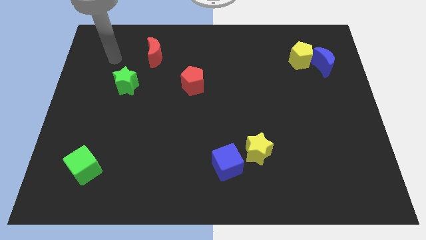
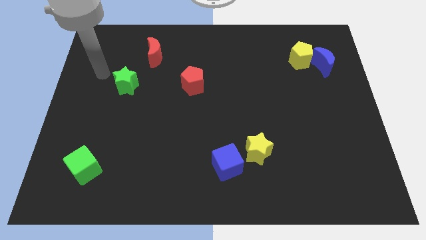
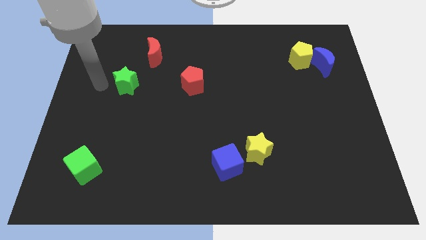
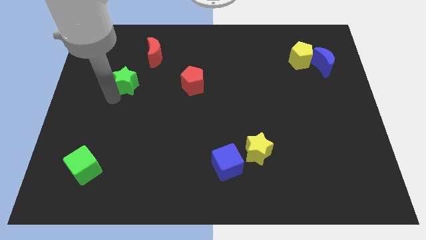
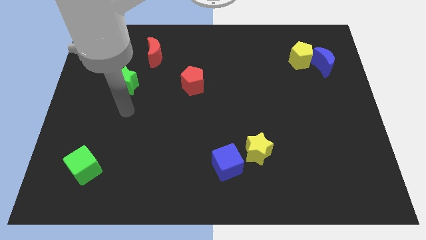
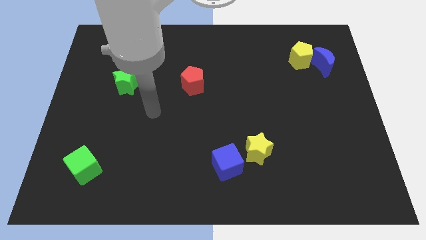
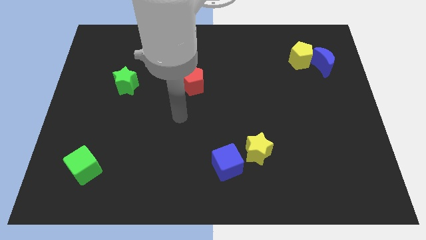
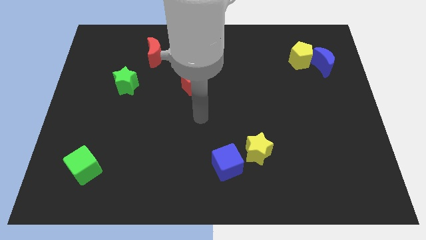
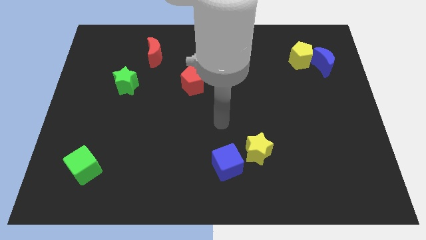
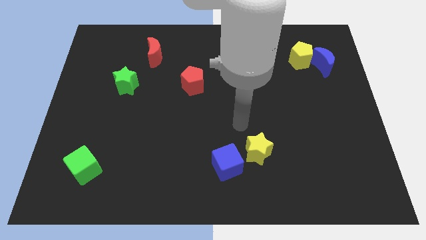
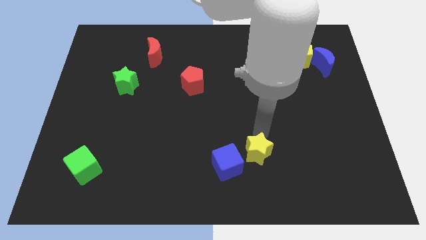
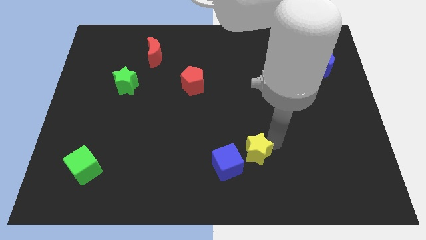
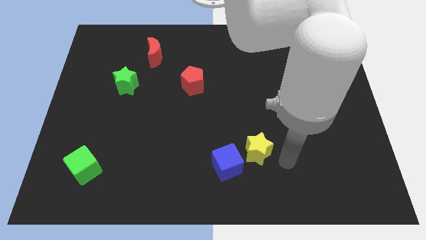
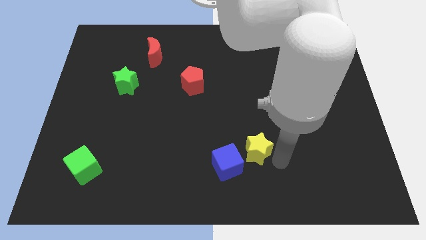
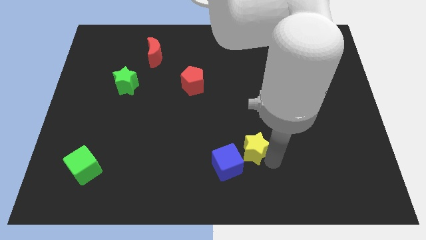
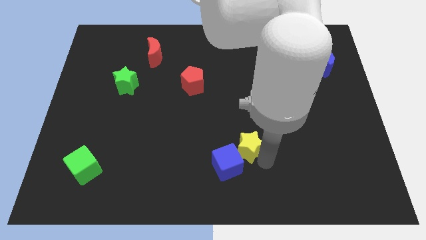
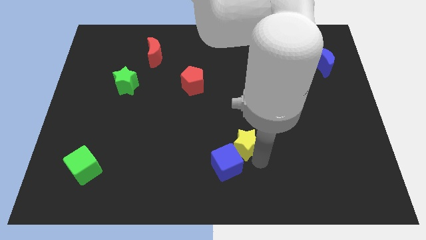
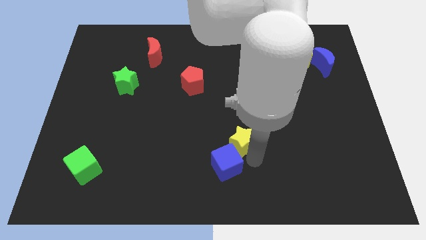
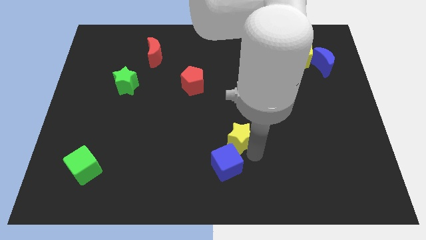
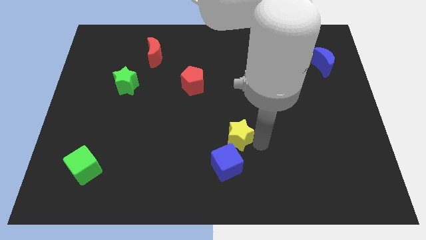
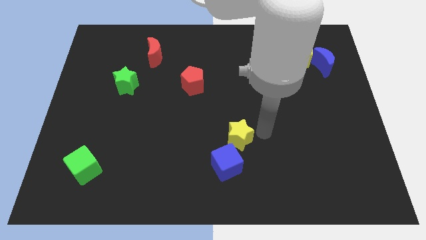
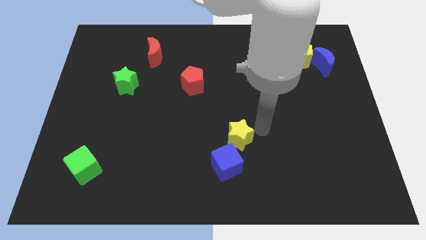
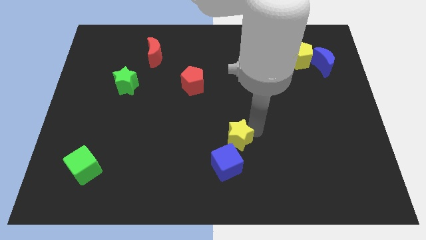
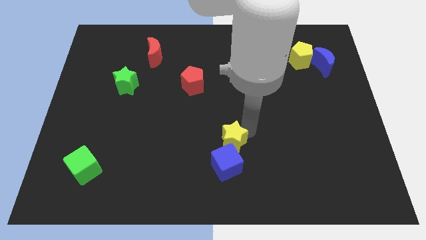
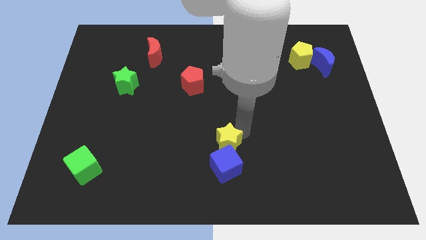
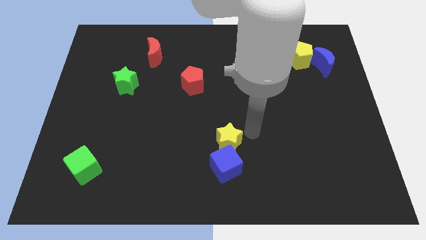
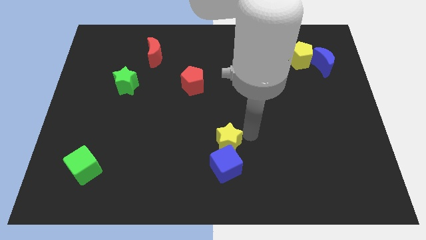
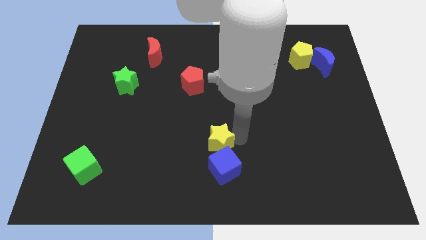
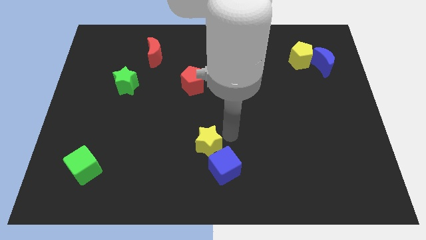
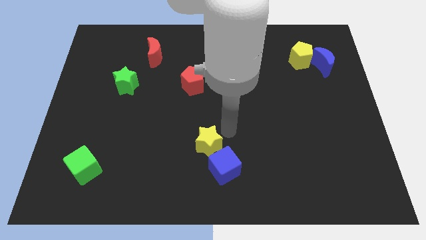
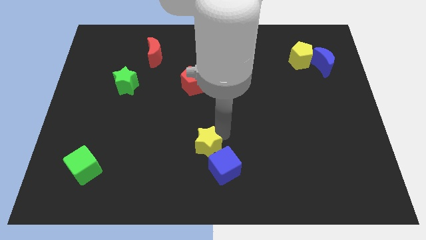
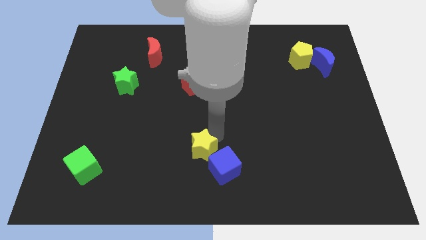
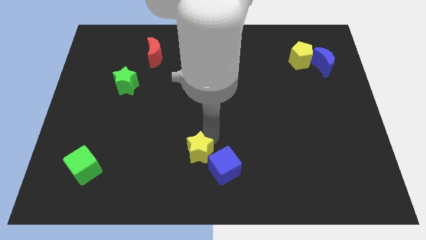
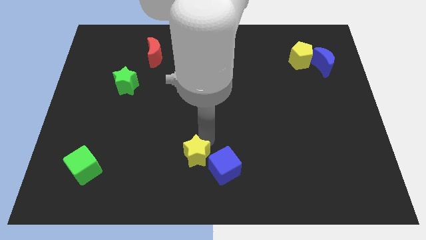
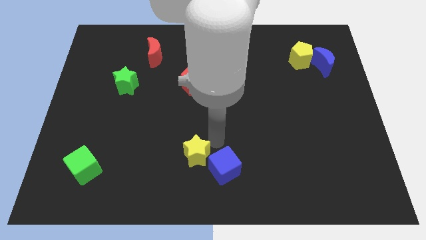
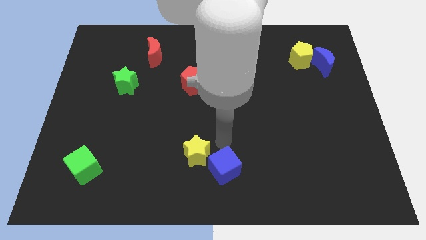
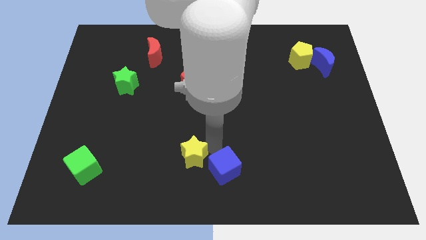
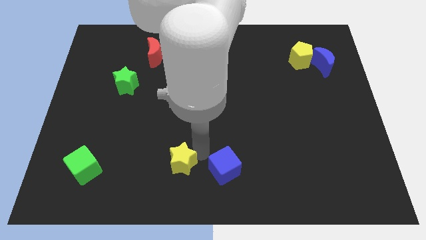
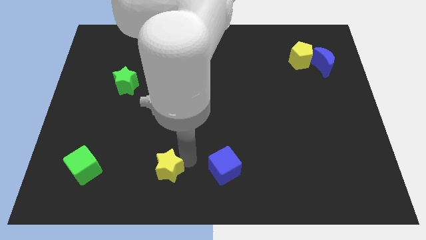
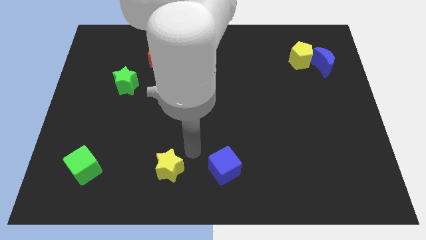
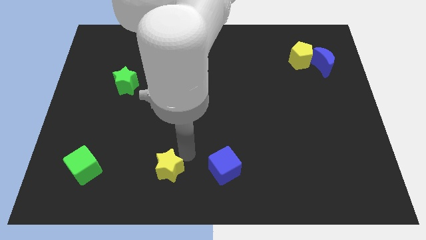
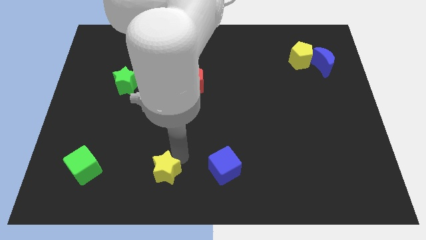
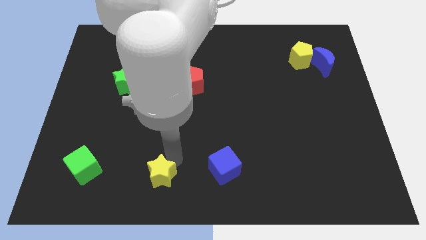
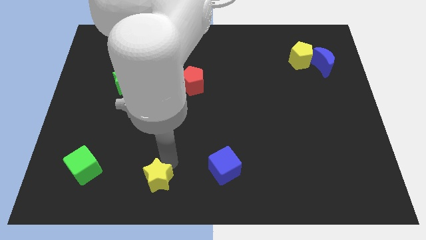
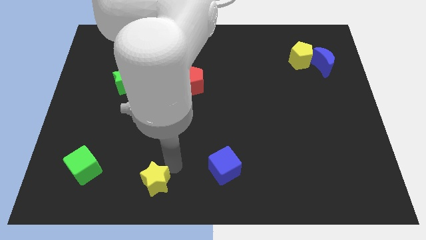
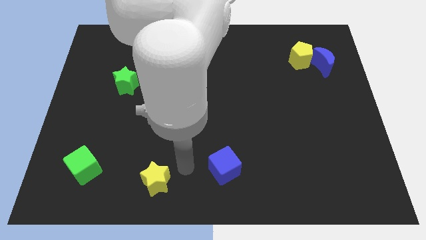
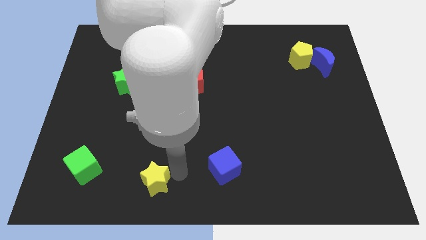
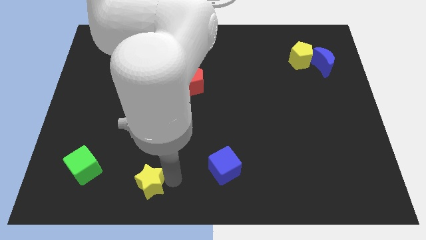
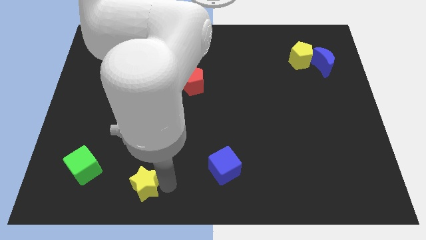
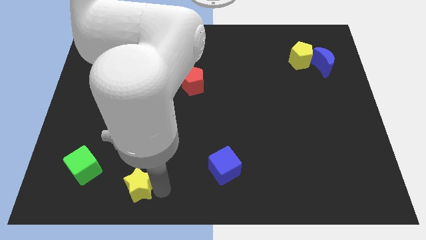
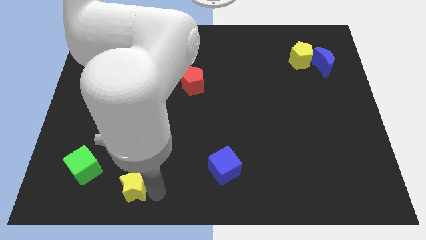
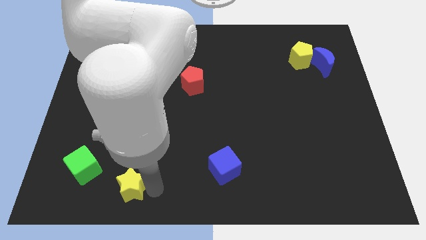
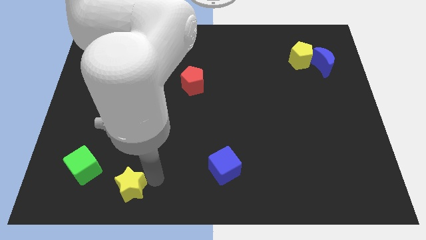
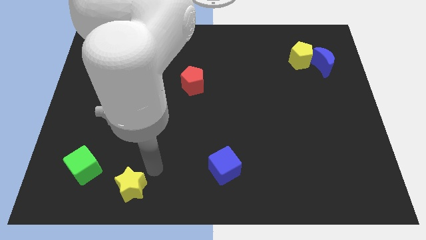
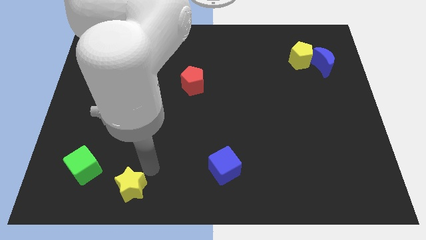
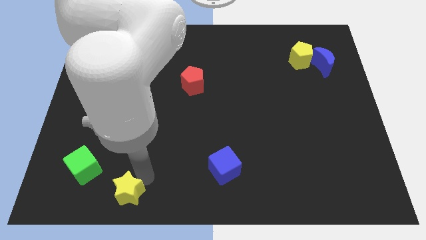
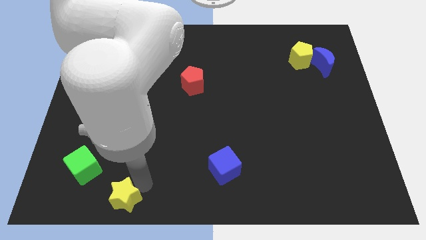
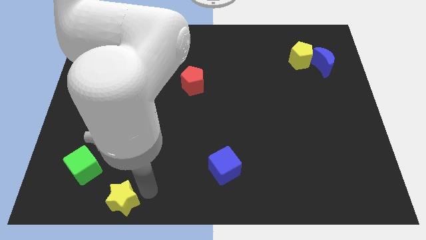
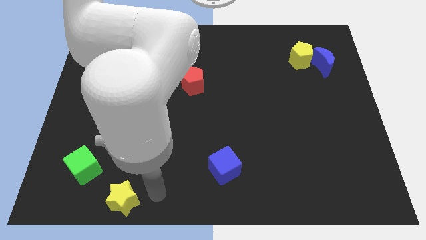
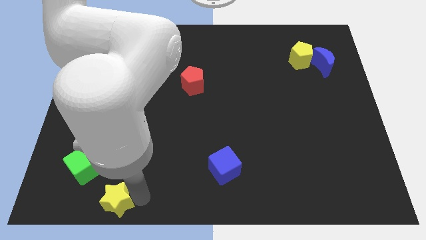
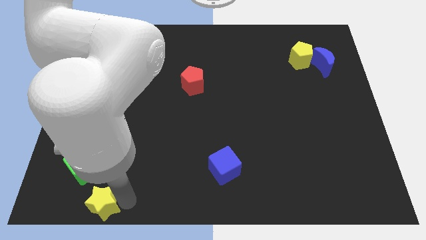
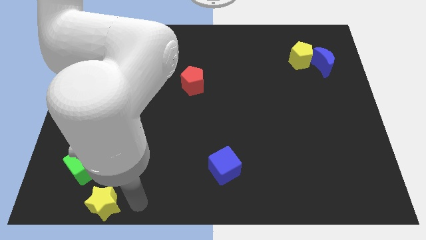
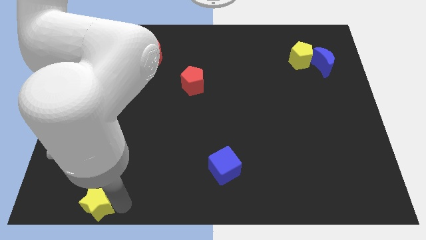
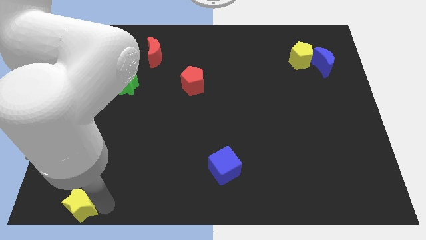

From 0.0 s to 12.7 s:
move the yellow star to the bottom left corner

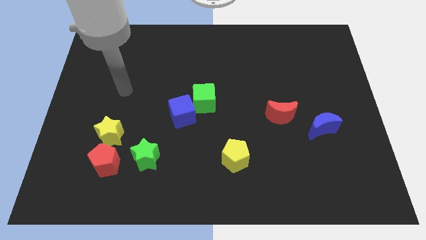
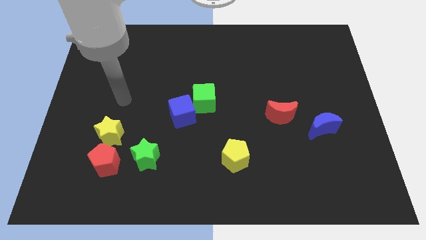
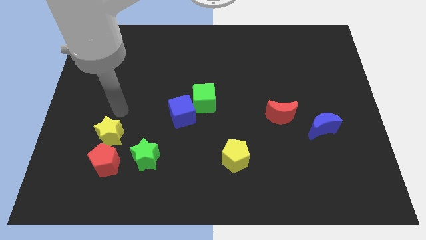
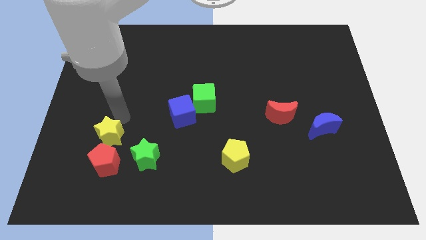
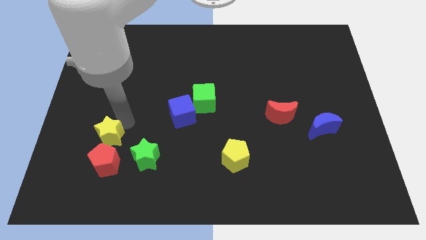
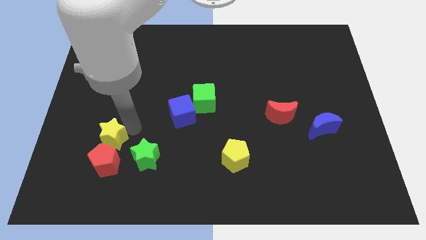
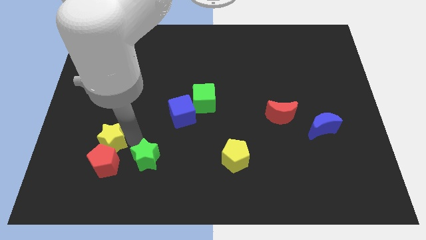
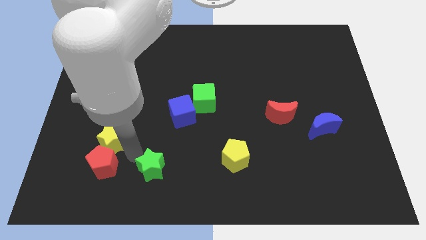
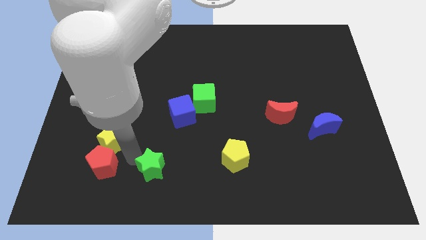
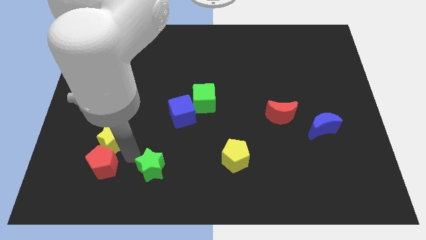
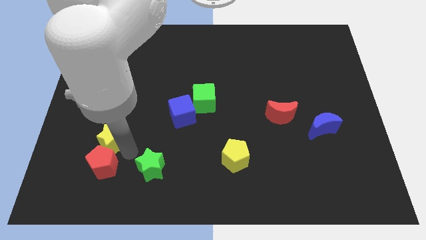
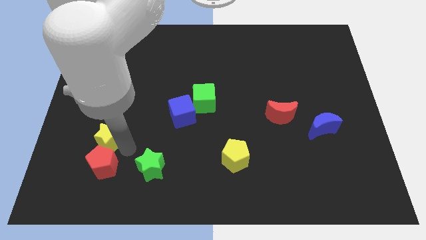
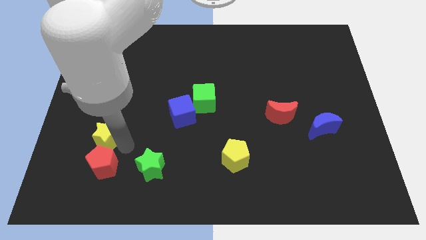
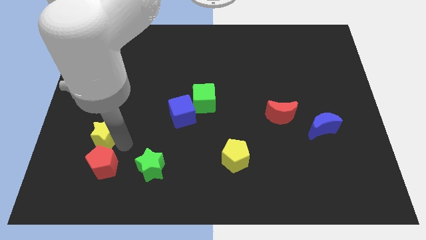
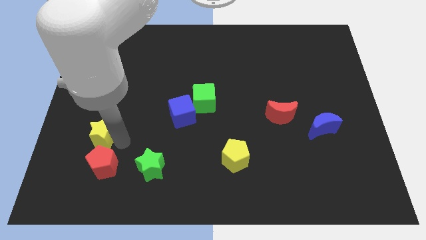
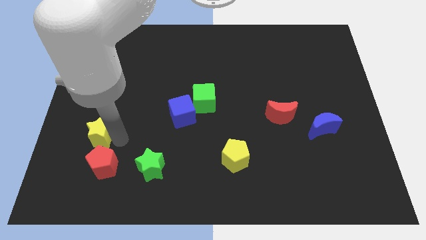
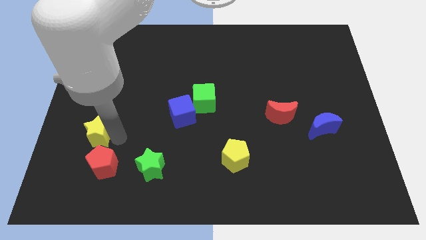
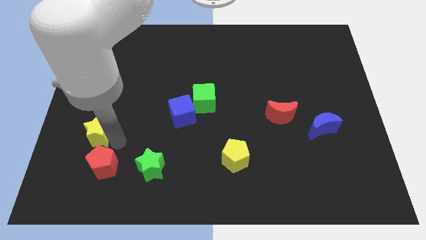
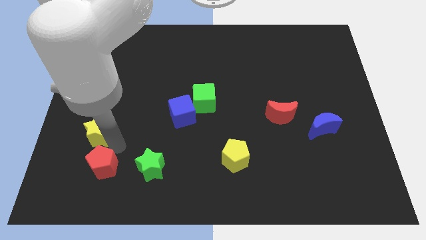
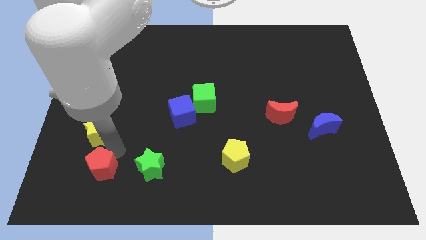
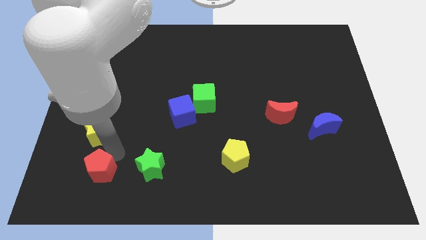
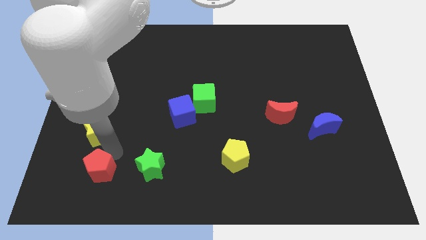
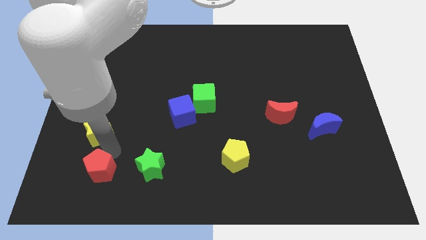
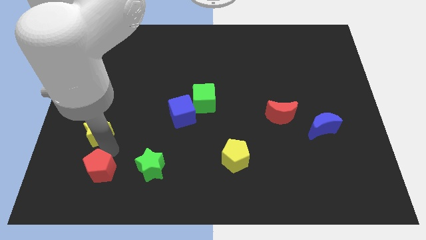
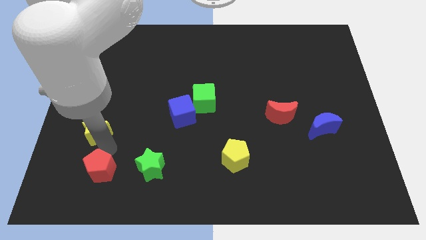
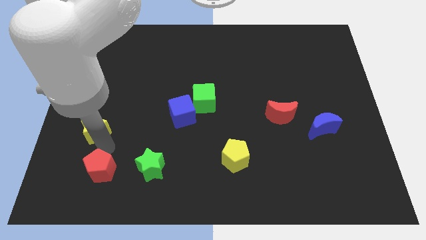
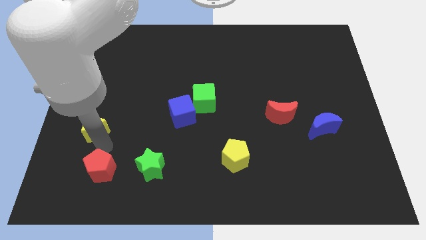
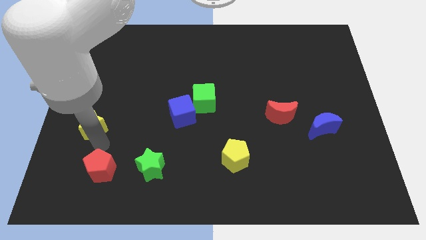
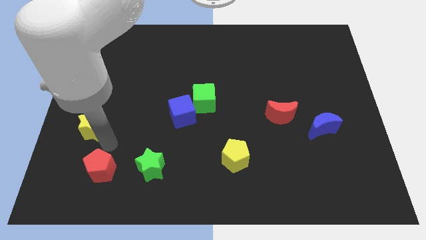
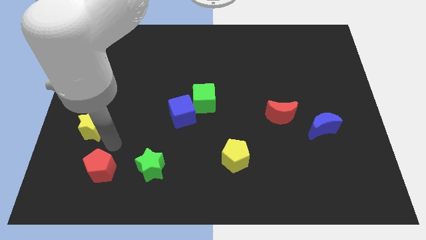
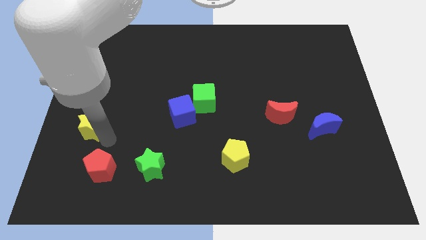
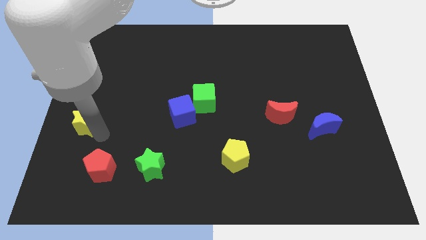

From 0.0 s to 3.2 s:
push the yellow star to the left side of the board
